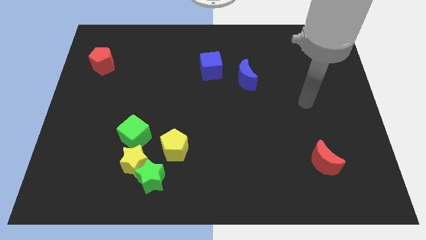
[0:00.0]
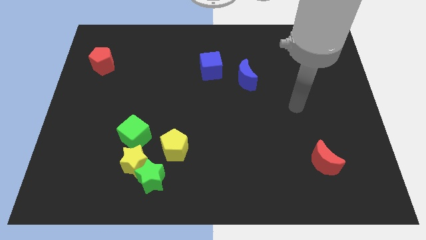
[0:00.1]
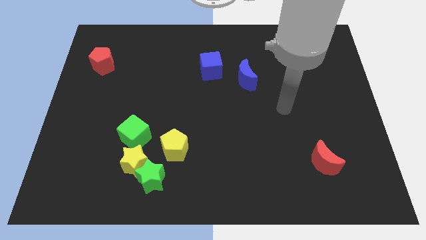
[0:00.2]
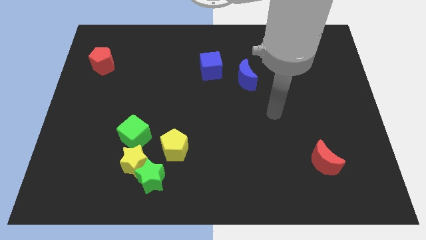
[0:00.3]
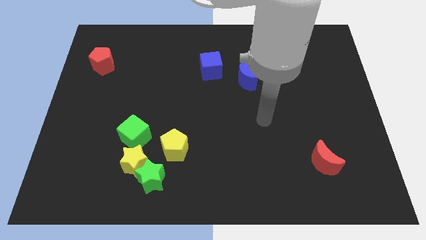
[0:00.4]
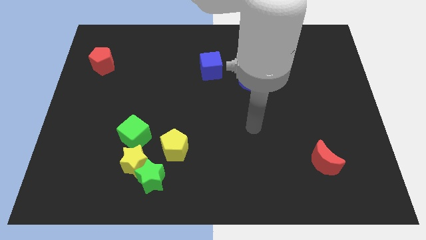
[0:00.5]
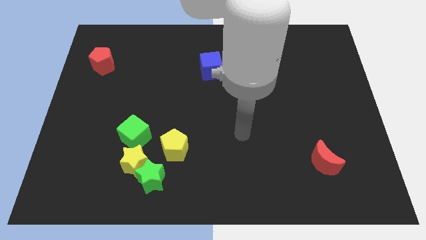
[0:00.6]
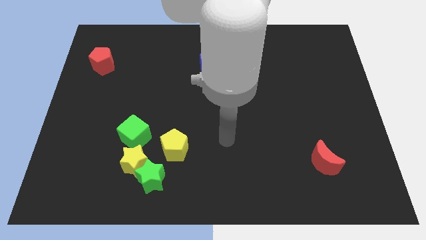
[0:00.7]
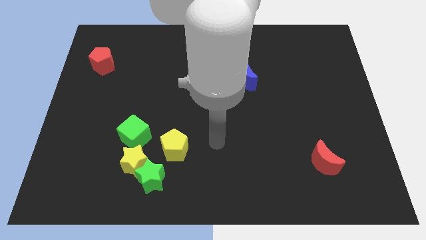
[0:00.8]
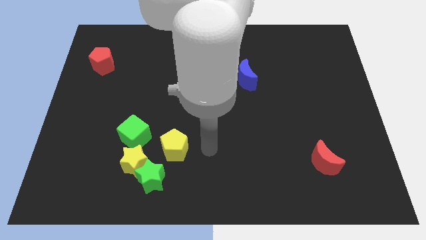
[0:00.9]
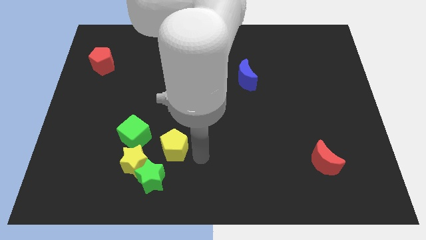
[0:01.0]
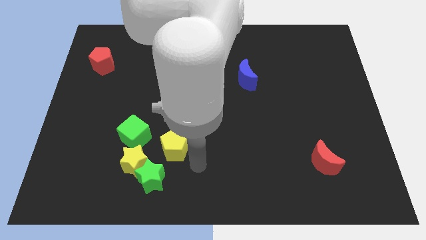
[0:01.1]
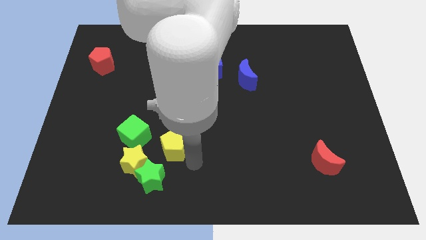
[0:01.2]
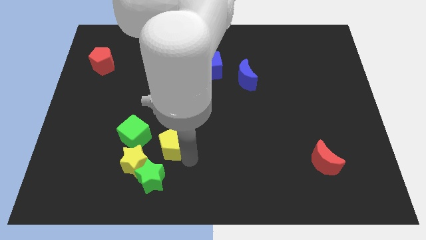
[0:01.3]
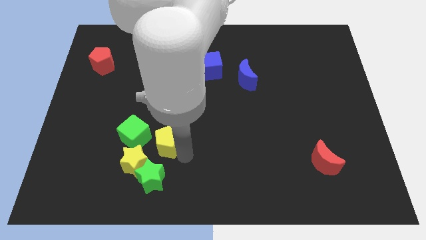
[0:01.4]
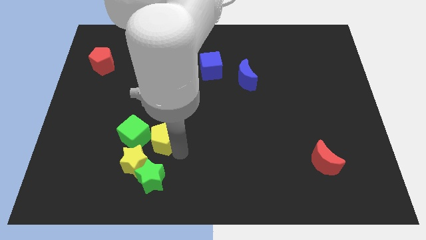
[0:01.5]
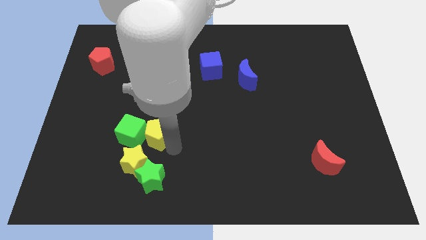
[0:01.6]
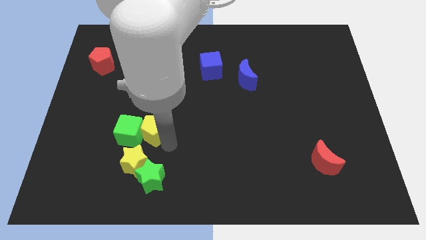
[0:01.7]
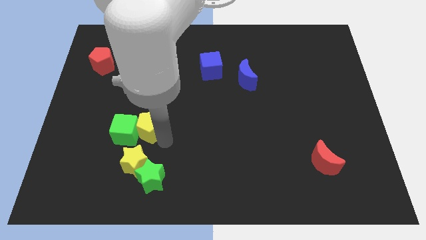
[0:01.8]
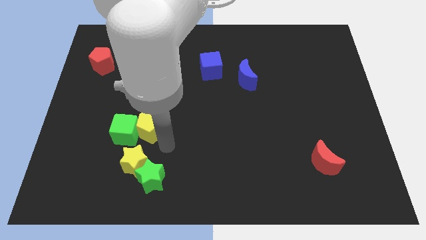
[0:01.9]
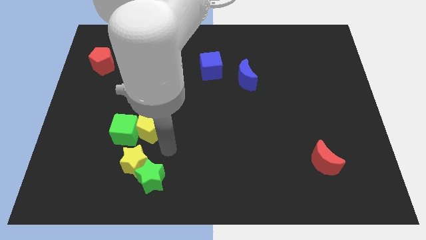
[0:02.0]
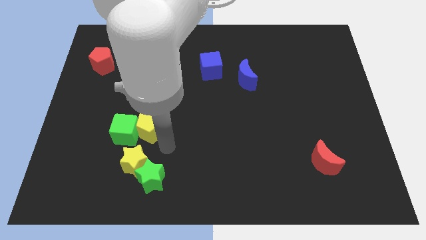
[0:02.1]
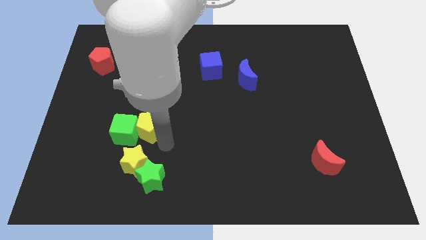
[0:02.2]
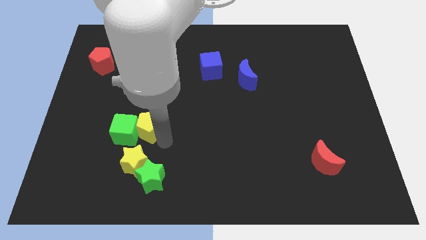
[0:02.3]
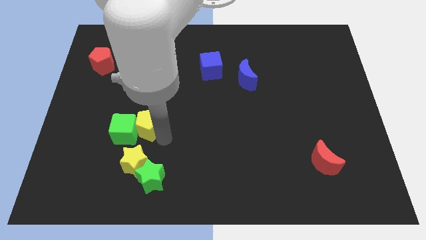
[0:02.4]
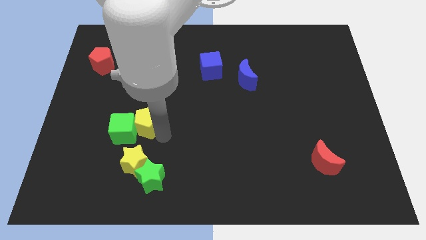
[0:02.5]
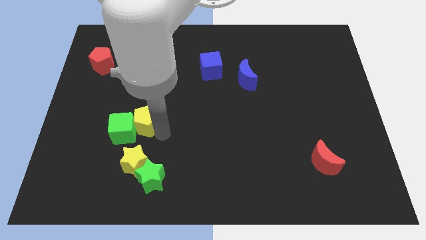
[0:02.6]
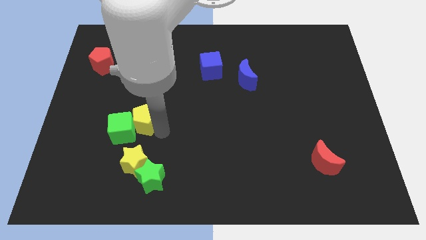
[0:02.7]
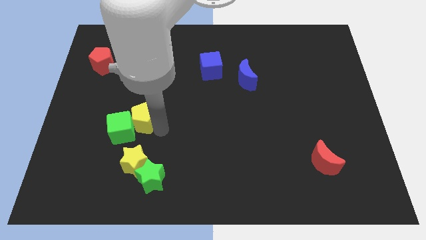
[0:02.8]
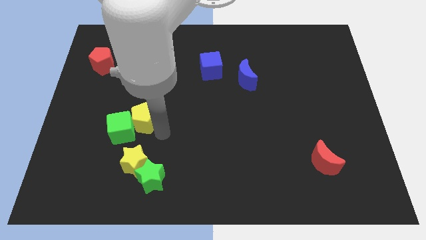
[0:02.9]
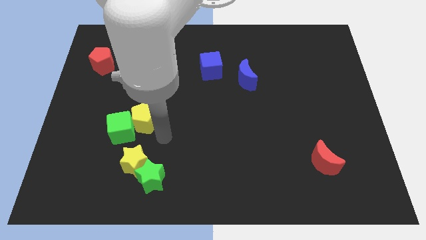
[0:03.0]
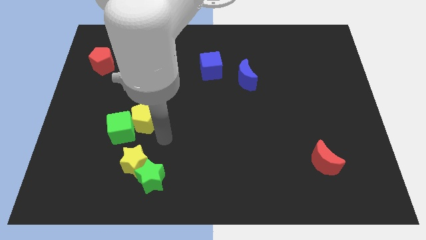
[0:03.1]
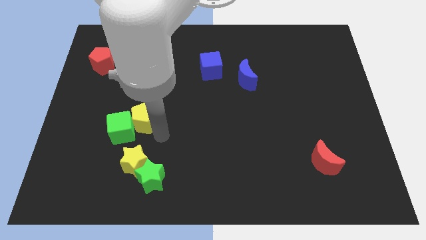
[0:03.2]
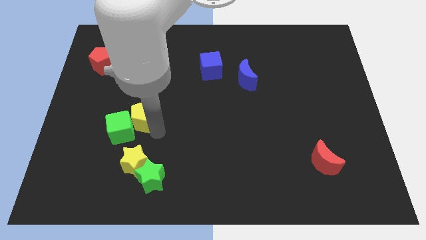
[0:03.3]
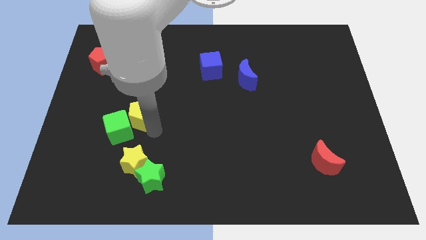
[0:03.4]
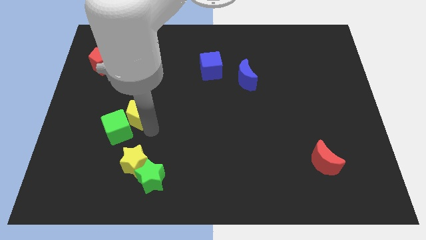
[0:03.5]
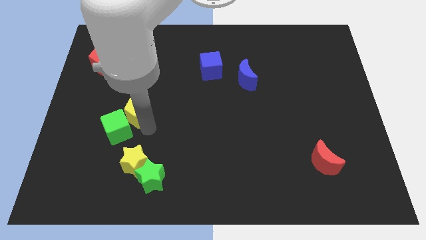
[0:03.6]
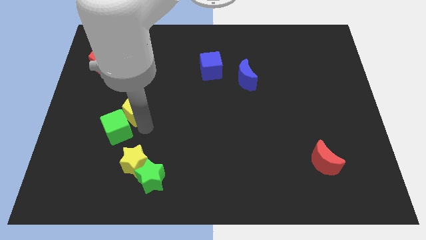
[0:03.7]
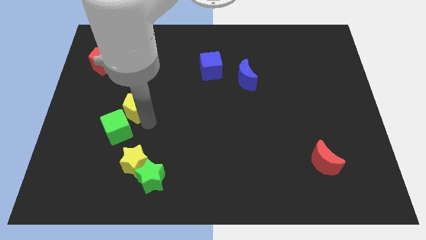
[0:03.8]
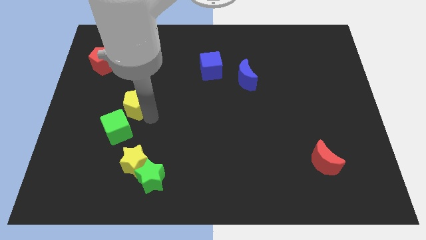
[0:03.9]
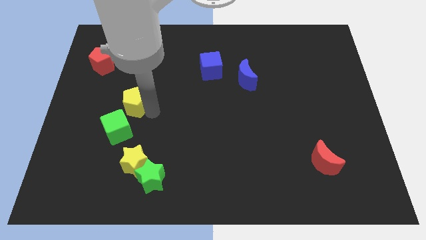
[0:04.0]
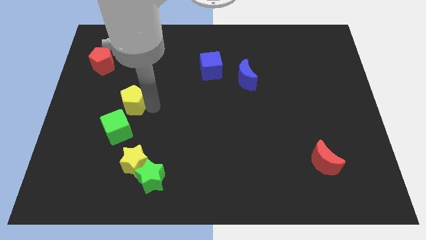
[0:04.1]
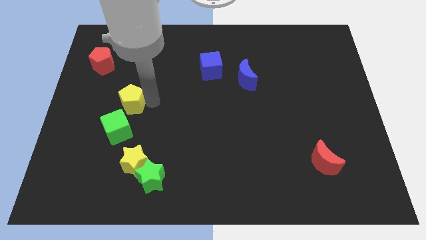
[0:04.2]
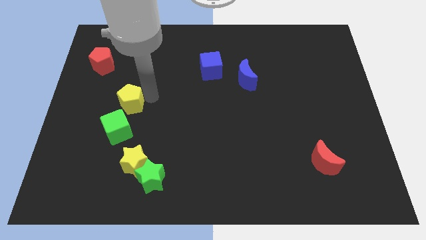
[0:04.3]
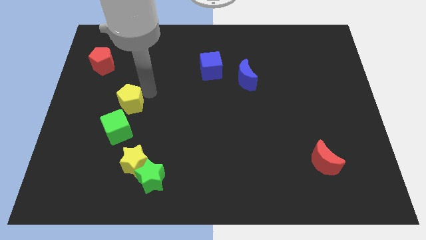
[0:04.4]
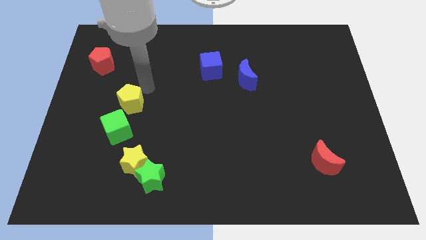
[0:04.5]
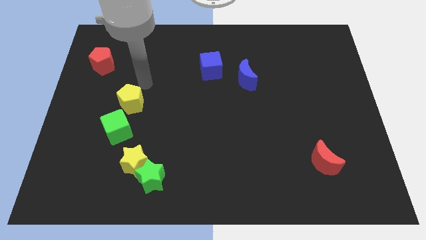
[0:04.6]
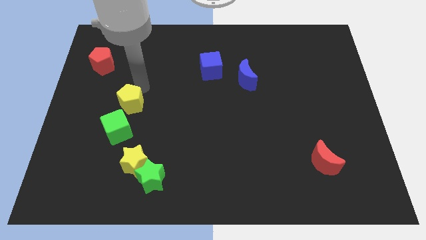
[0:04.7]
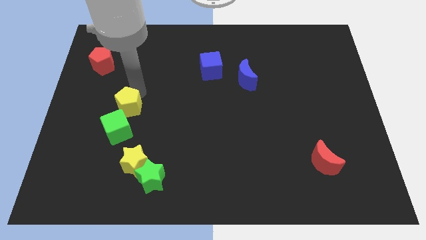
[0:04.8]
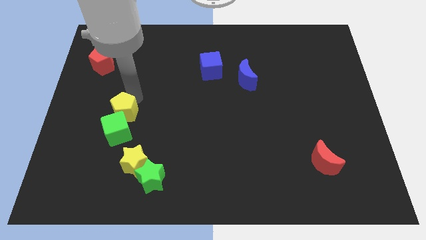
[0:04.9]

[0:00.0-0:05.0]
slide the yellow pentagon slightly to the left

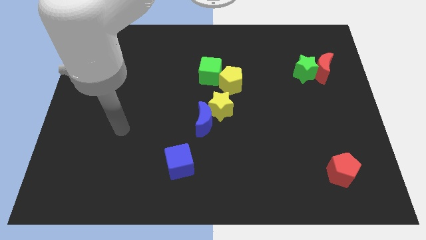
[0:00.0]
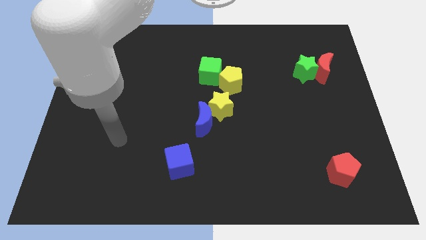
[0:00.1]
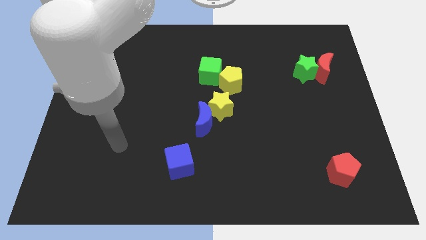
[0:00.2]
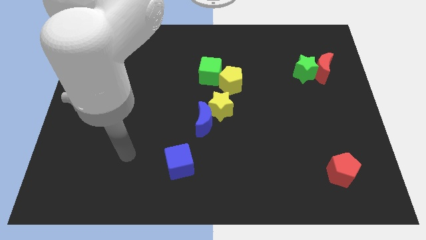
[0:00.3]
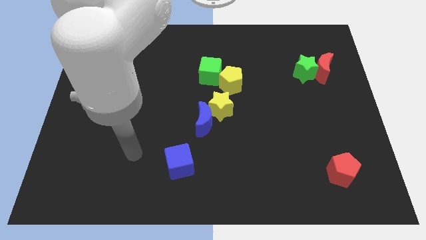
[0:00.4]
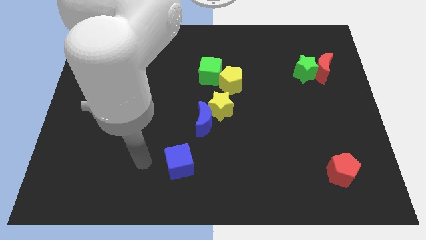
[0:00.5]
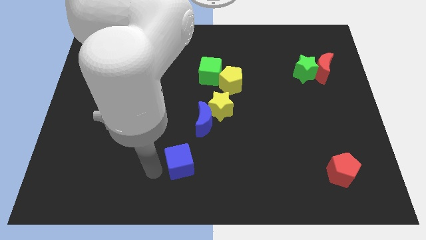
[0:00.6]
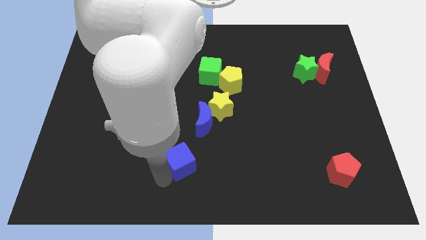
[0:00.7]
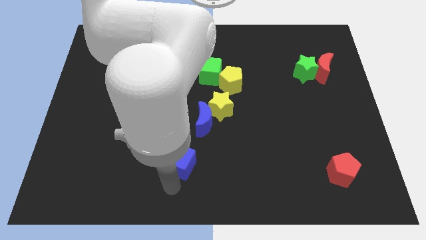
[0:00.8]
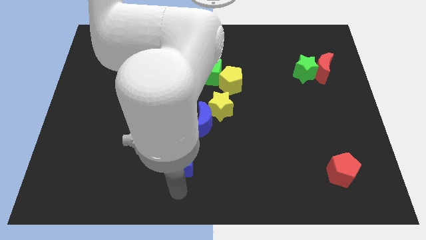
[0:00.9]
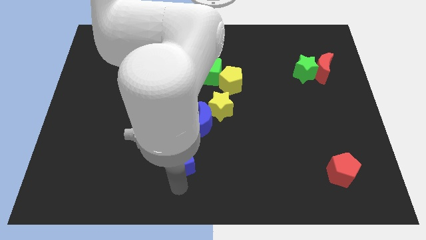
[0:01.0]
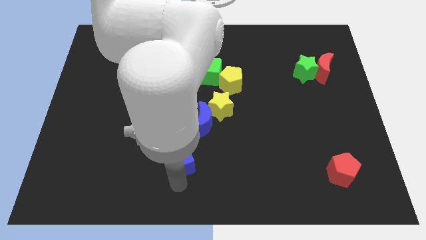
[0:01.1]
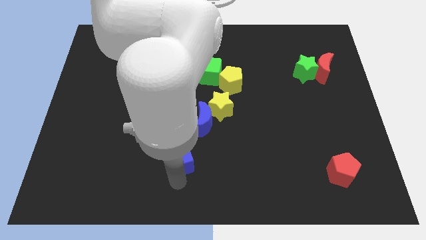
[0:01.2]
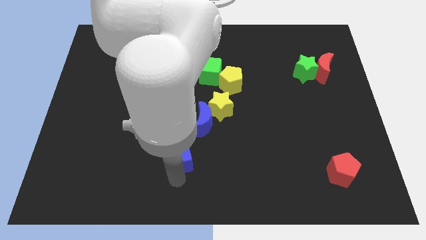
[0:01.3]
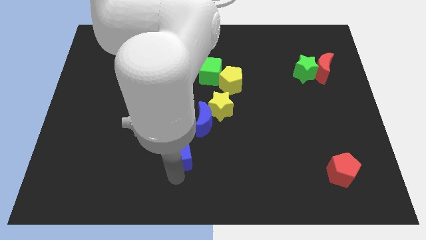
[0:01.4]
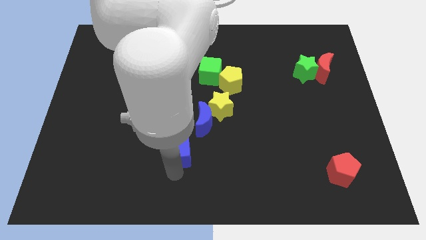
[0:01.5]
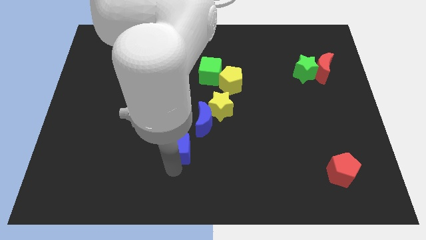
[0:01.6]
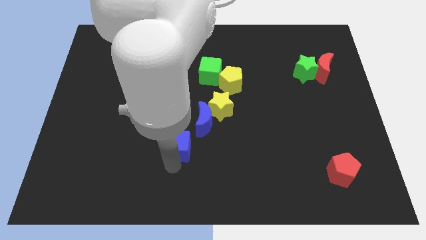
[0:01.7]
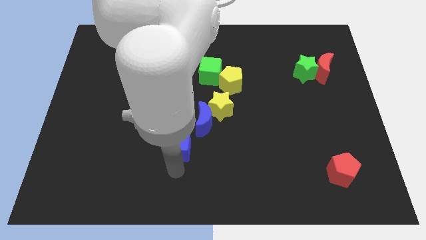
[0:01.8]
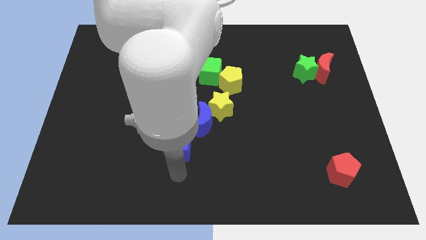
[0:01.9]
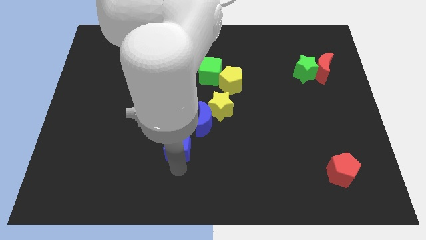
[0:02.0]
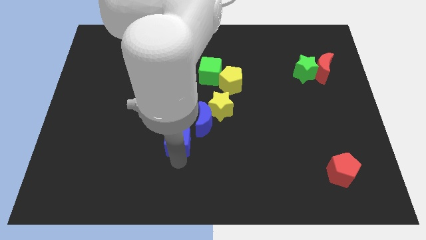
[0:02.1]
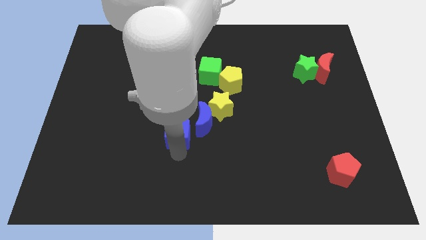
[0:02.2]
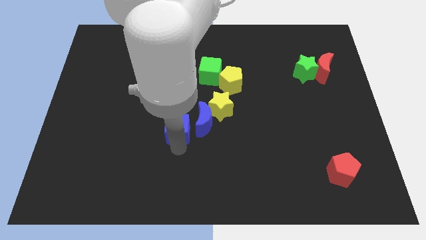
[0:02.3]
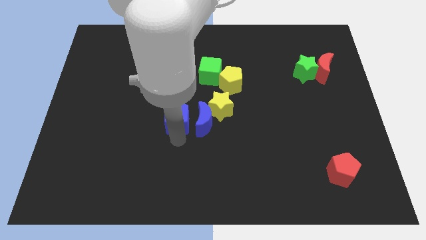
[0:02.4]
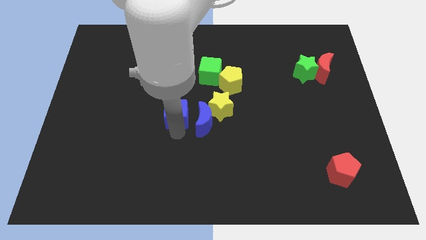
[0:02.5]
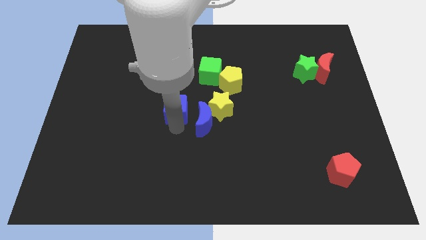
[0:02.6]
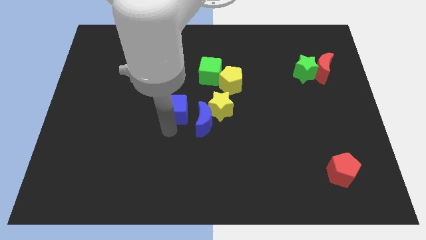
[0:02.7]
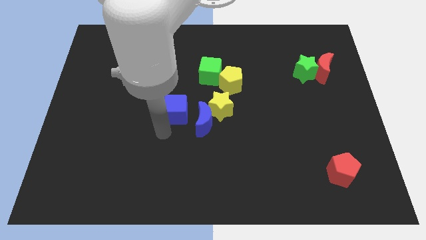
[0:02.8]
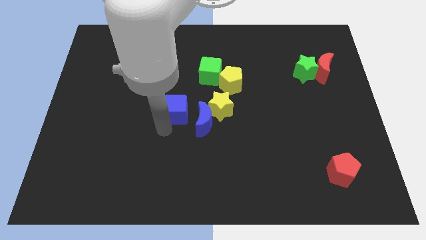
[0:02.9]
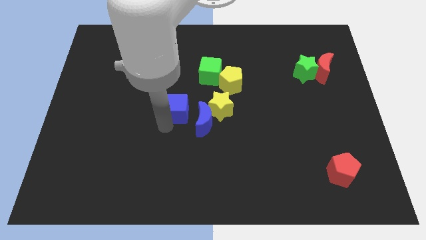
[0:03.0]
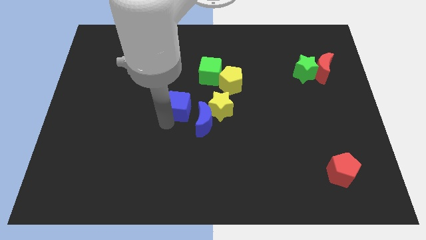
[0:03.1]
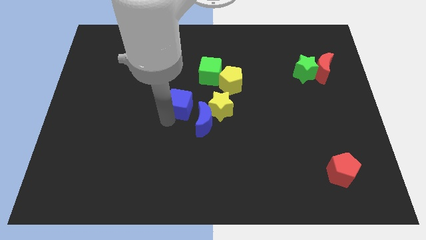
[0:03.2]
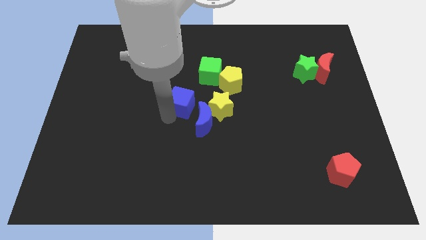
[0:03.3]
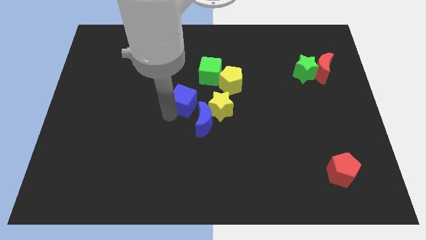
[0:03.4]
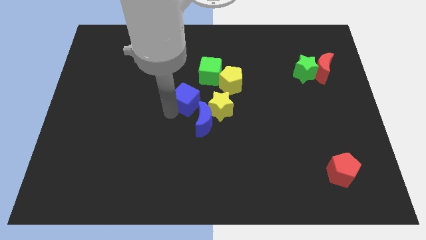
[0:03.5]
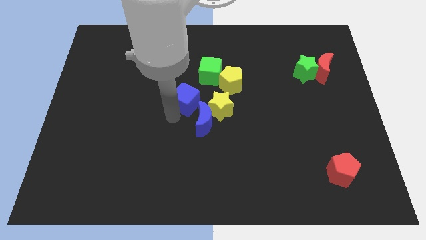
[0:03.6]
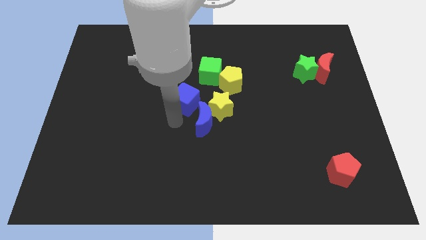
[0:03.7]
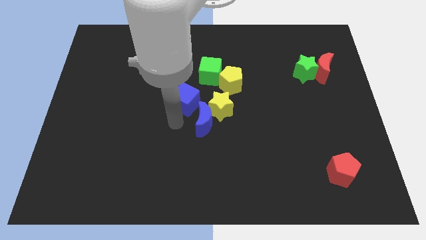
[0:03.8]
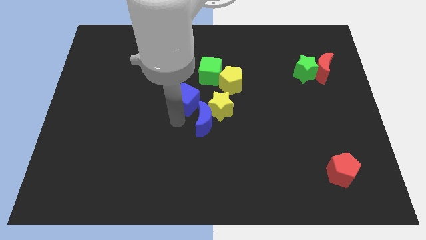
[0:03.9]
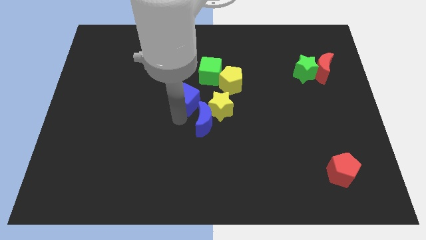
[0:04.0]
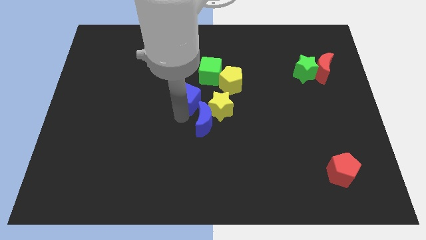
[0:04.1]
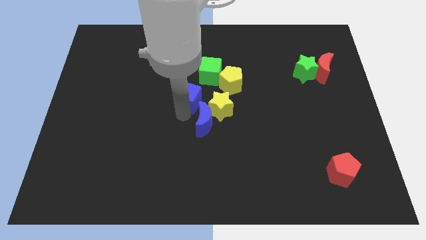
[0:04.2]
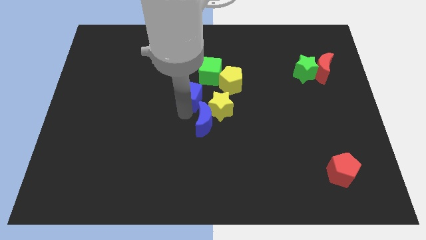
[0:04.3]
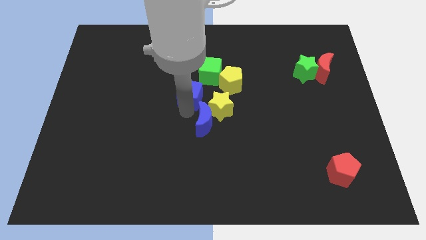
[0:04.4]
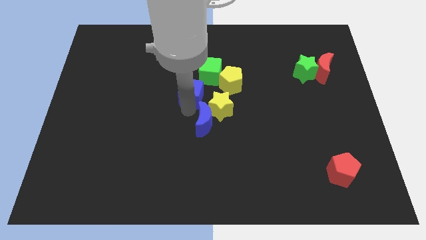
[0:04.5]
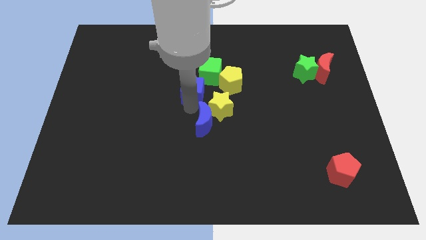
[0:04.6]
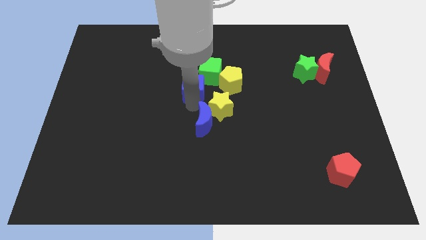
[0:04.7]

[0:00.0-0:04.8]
move the blue cube up
